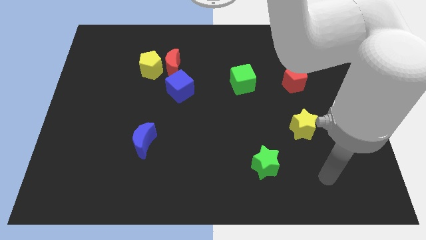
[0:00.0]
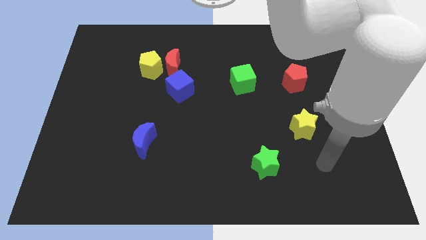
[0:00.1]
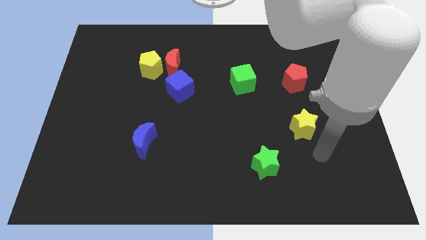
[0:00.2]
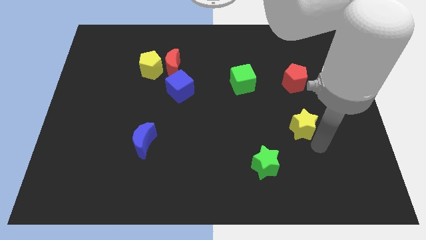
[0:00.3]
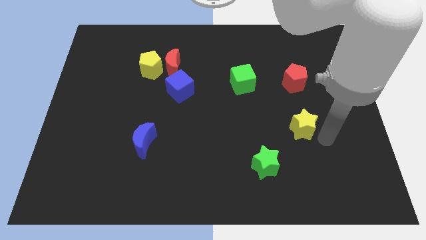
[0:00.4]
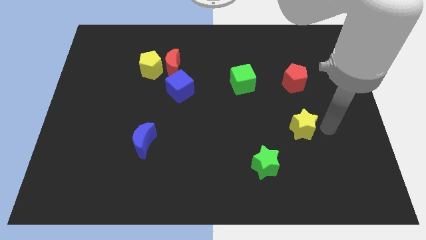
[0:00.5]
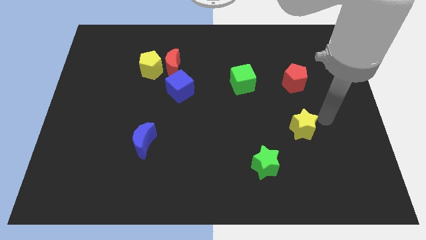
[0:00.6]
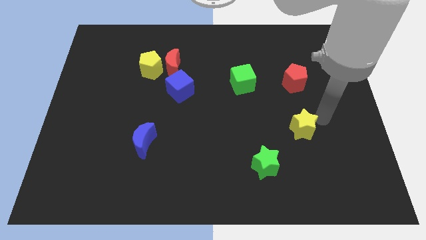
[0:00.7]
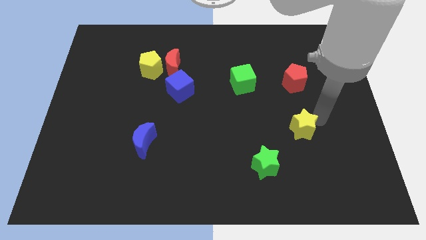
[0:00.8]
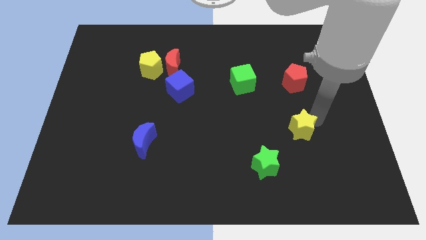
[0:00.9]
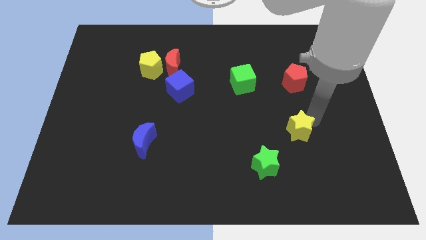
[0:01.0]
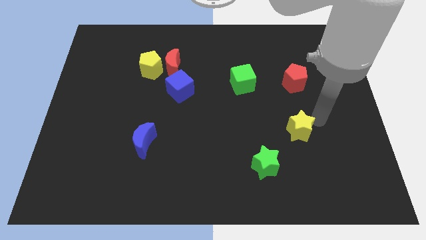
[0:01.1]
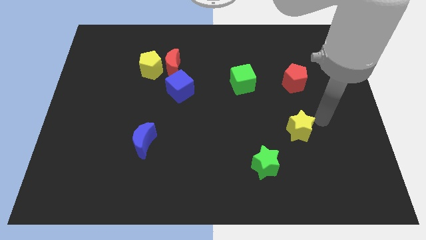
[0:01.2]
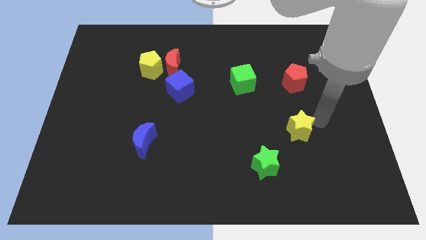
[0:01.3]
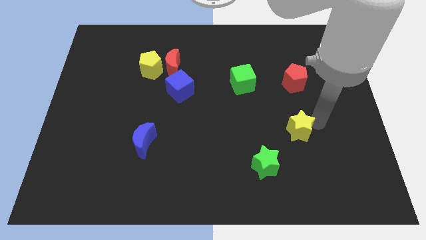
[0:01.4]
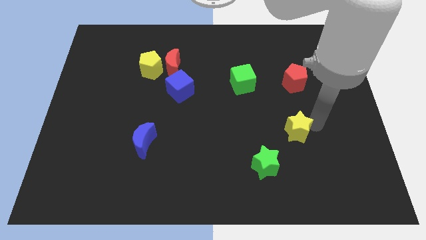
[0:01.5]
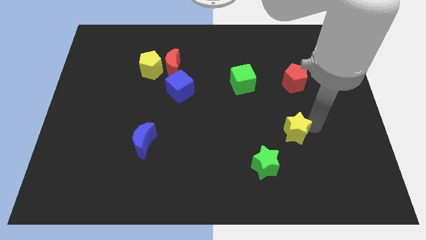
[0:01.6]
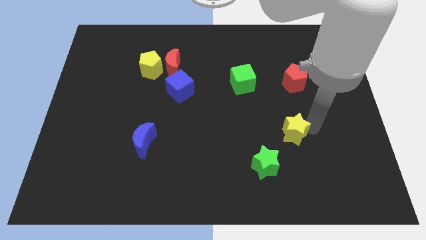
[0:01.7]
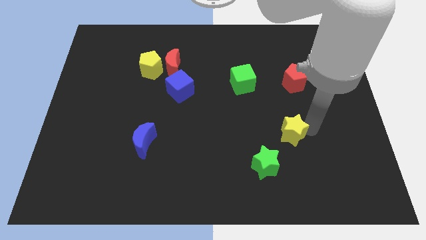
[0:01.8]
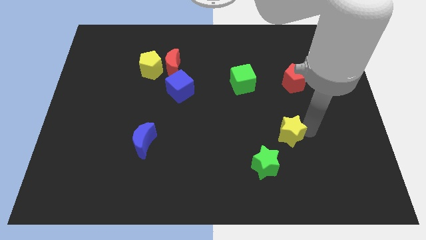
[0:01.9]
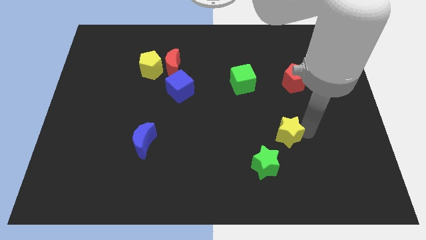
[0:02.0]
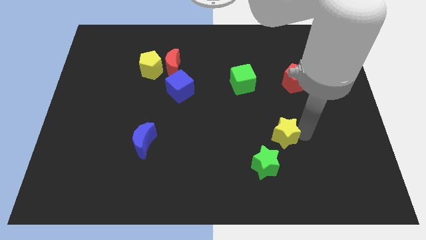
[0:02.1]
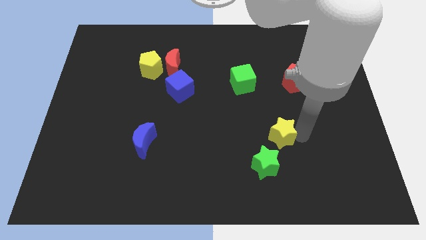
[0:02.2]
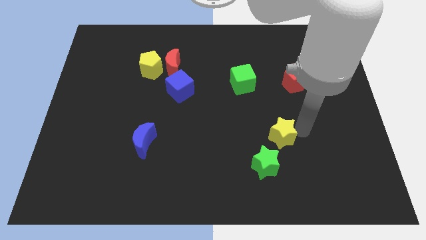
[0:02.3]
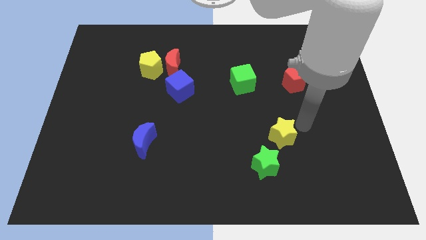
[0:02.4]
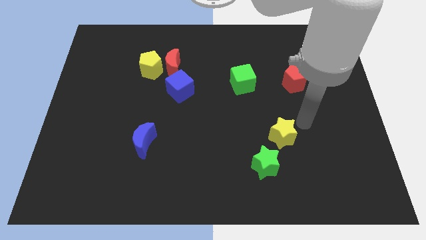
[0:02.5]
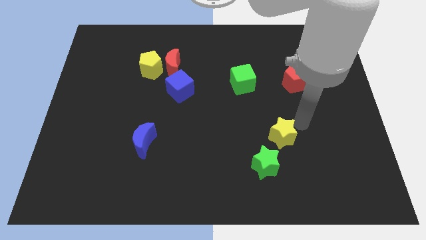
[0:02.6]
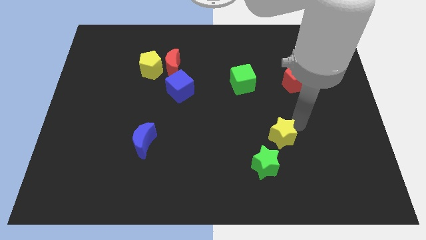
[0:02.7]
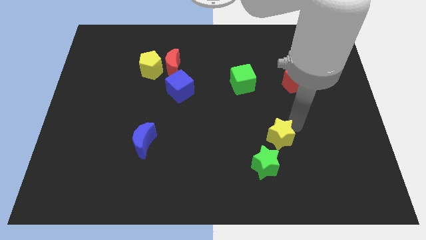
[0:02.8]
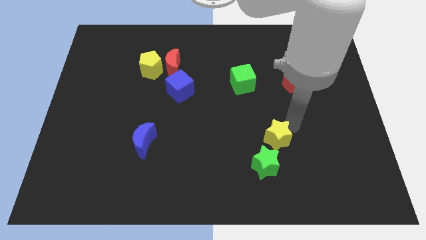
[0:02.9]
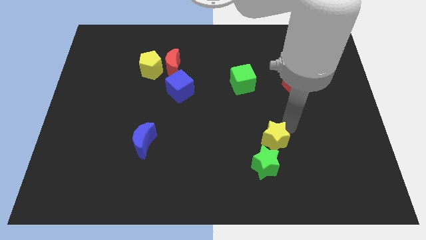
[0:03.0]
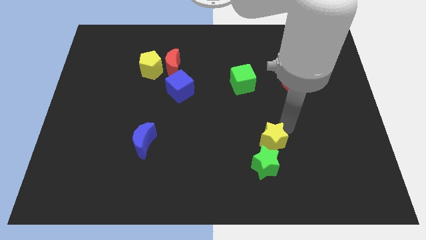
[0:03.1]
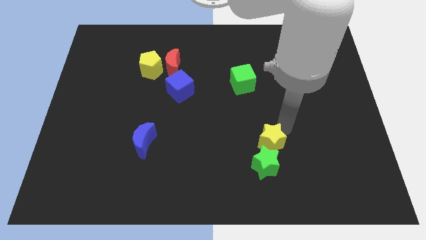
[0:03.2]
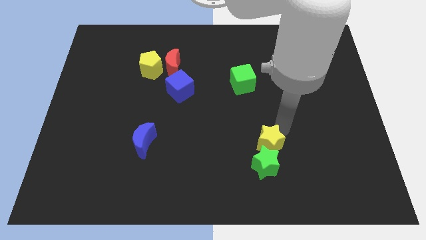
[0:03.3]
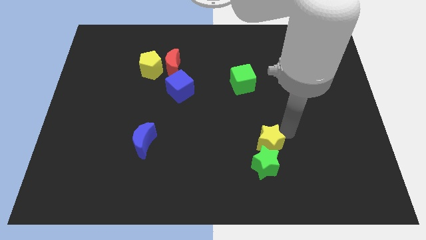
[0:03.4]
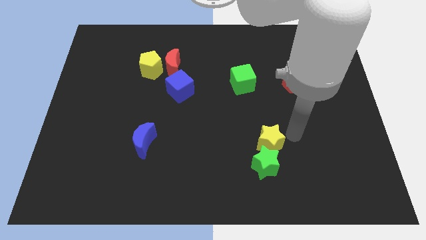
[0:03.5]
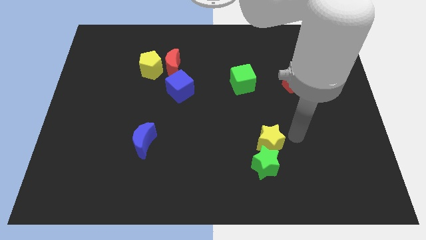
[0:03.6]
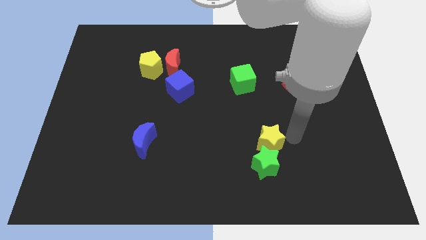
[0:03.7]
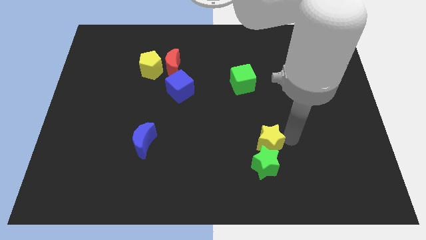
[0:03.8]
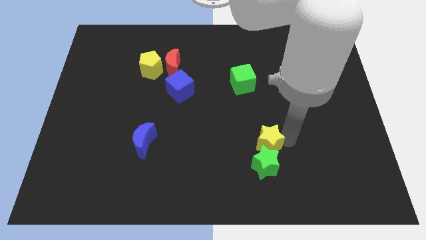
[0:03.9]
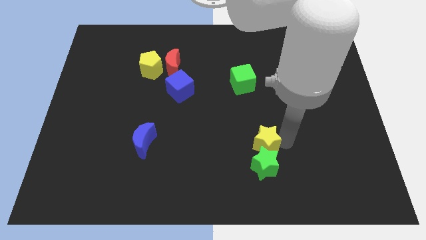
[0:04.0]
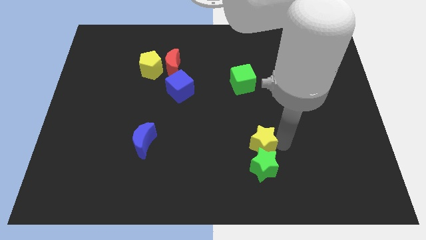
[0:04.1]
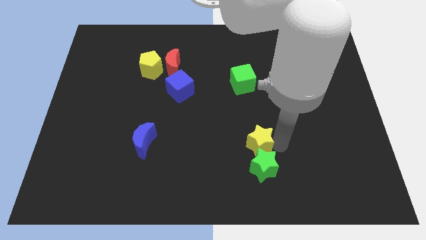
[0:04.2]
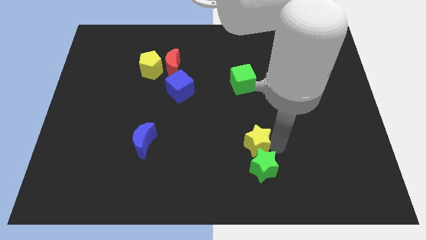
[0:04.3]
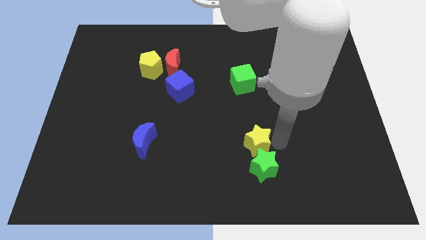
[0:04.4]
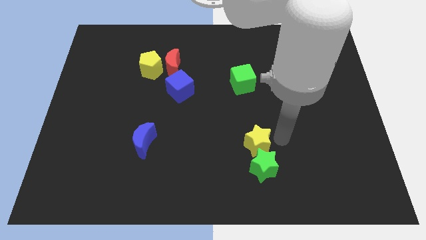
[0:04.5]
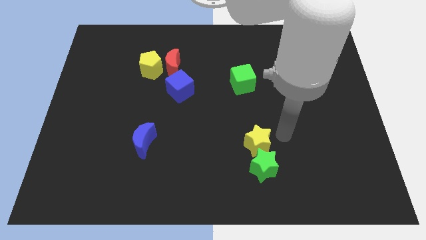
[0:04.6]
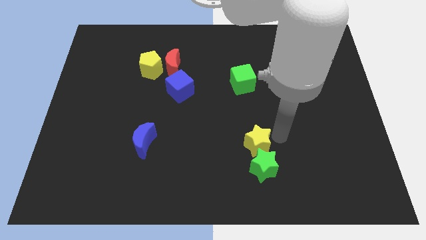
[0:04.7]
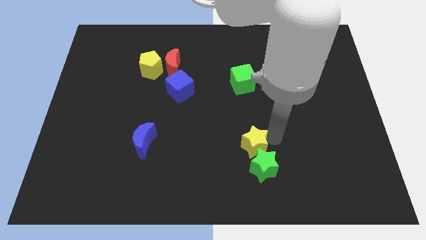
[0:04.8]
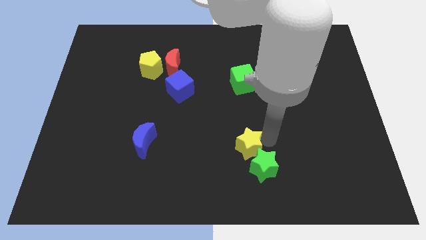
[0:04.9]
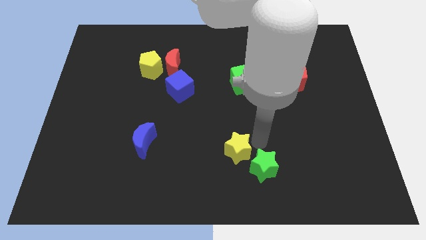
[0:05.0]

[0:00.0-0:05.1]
put the yellow star left of the green star

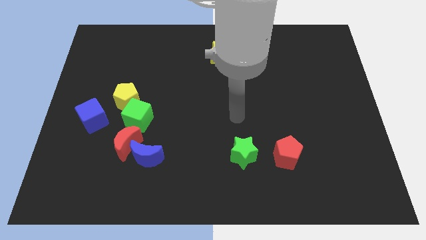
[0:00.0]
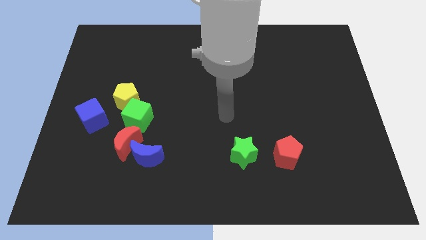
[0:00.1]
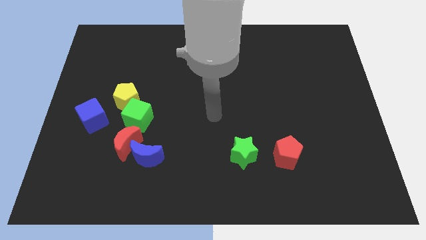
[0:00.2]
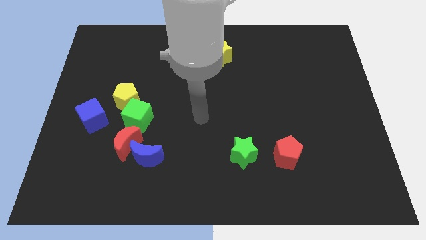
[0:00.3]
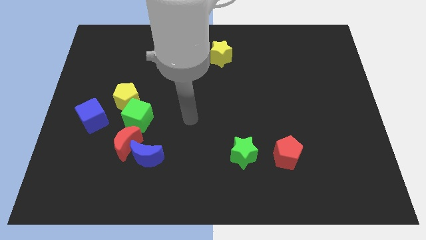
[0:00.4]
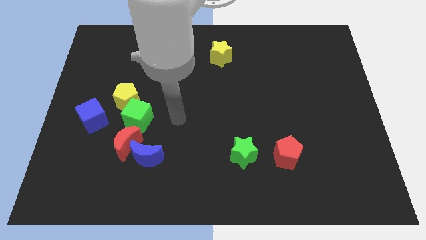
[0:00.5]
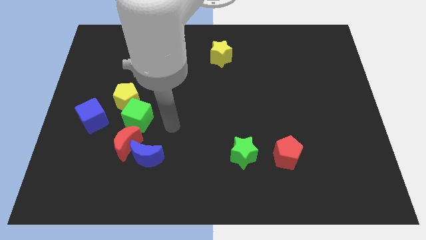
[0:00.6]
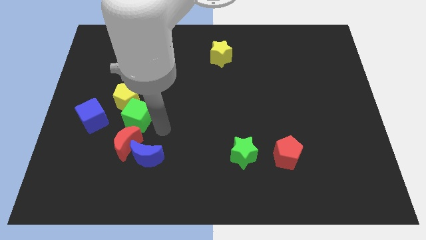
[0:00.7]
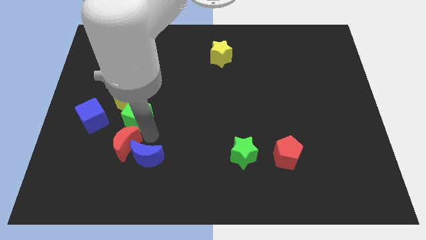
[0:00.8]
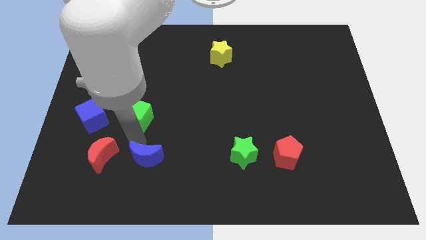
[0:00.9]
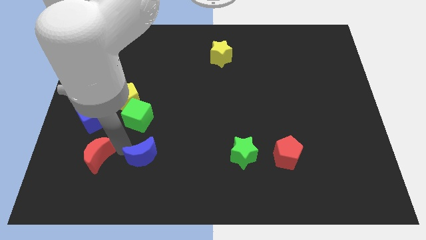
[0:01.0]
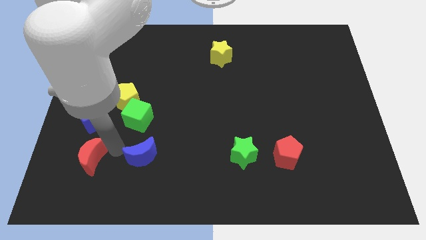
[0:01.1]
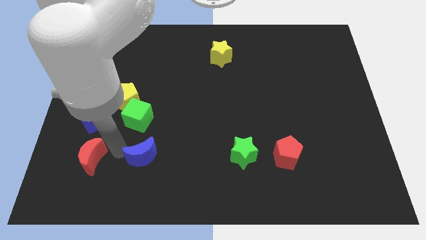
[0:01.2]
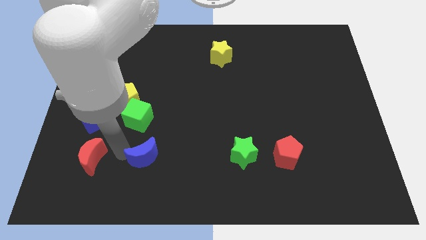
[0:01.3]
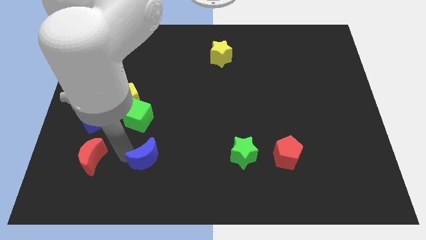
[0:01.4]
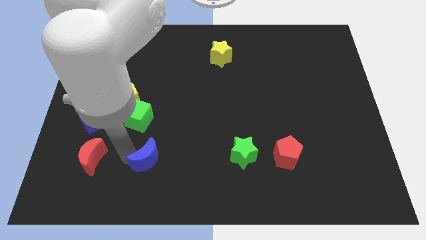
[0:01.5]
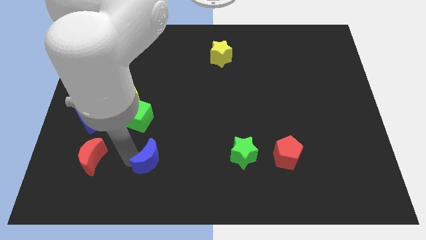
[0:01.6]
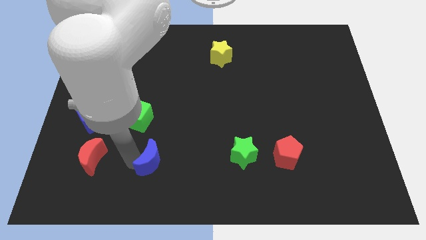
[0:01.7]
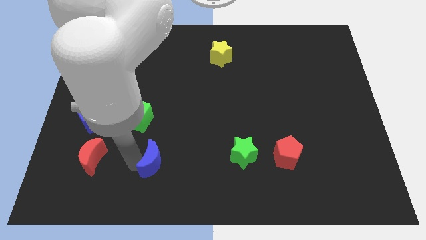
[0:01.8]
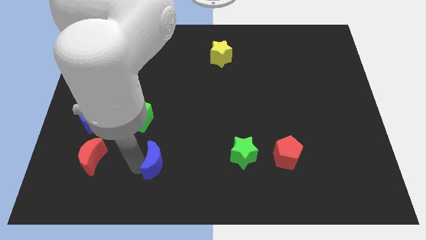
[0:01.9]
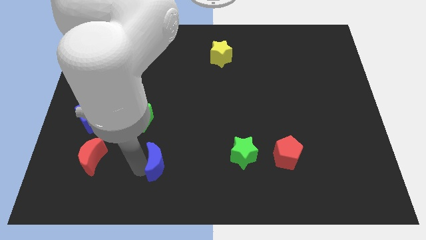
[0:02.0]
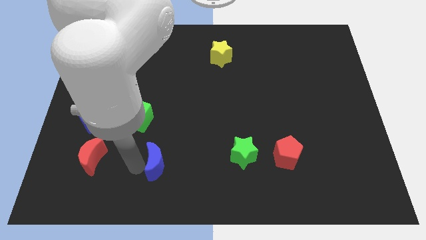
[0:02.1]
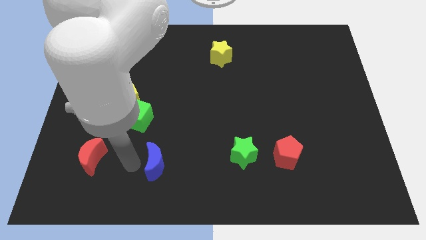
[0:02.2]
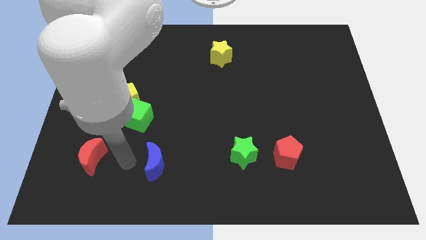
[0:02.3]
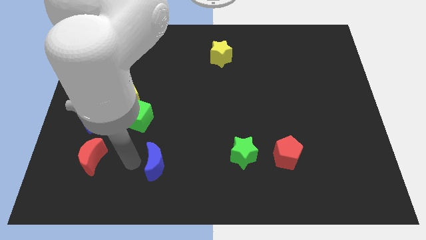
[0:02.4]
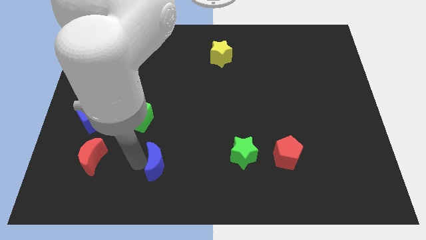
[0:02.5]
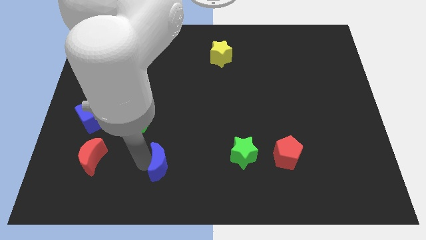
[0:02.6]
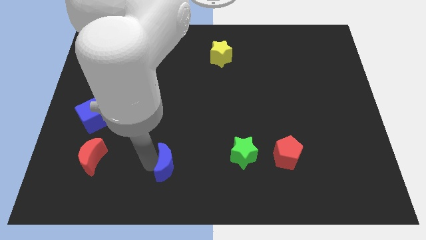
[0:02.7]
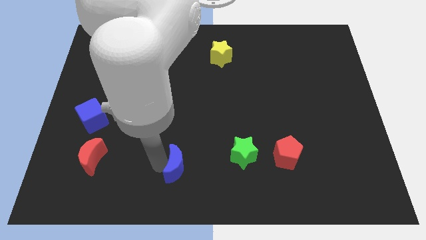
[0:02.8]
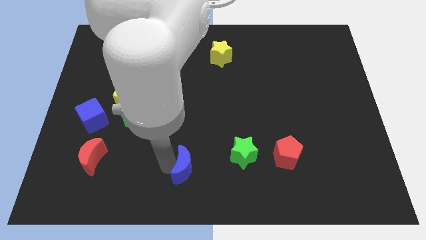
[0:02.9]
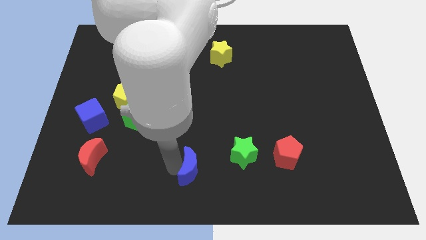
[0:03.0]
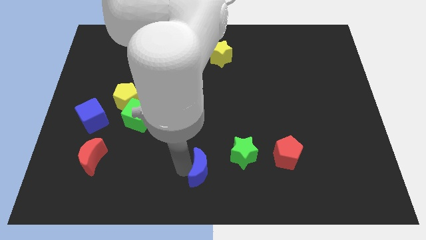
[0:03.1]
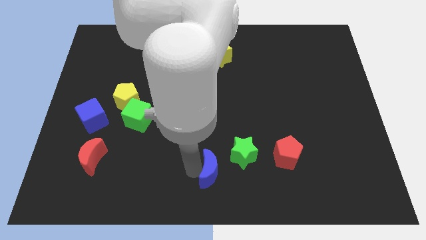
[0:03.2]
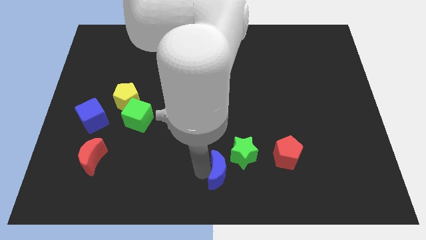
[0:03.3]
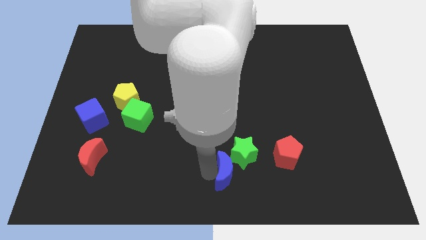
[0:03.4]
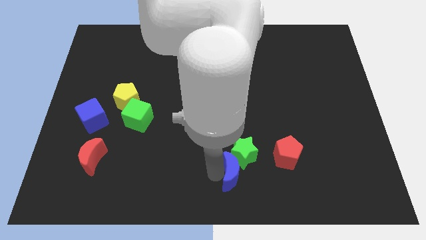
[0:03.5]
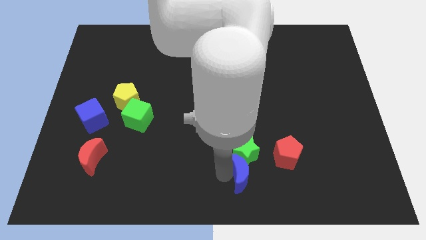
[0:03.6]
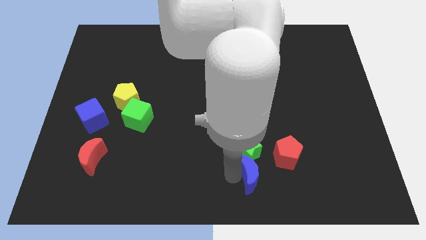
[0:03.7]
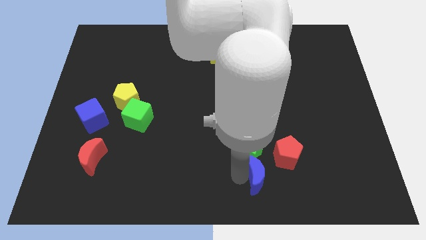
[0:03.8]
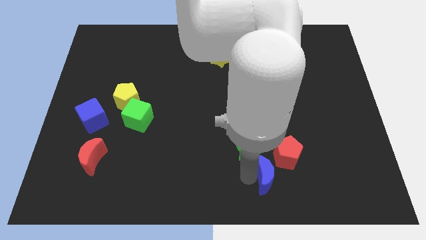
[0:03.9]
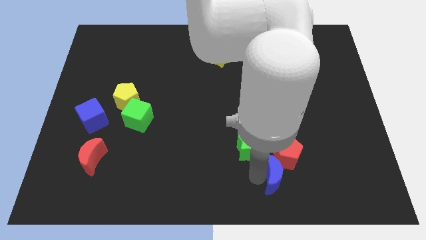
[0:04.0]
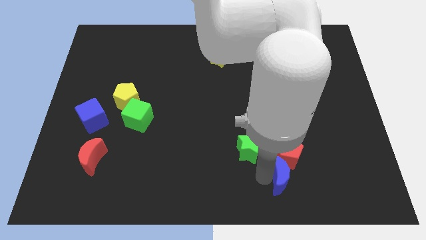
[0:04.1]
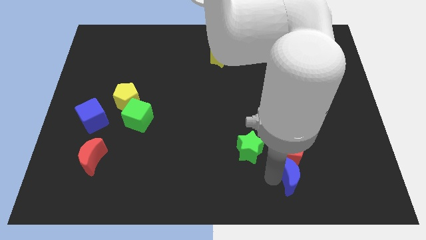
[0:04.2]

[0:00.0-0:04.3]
move the blue moon to the bottom right of the red pentagon
